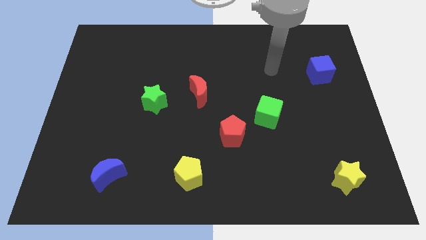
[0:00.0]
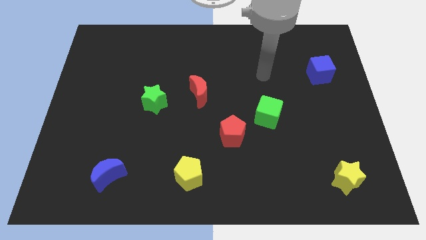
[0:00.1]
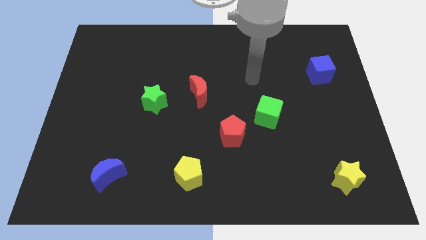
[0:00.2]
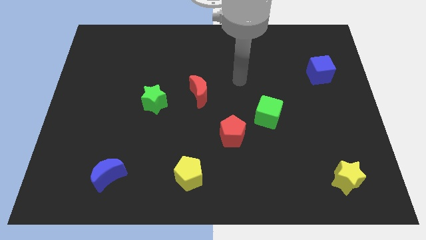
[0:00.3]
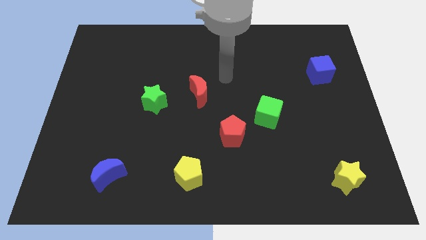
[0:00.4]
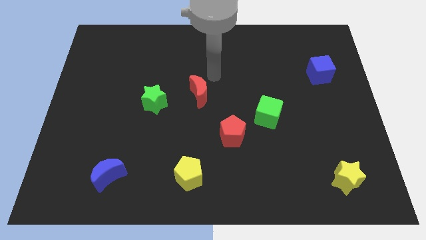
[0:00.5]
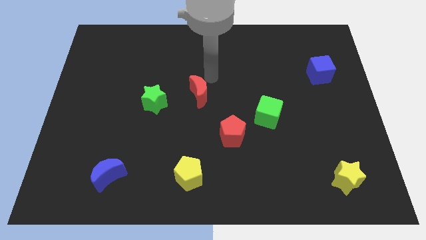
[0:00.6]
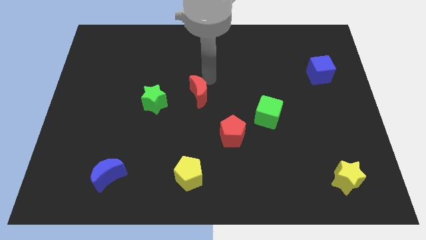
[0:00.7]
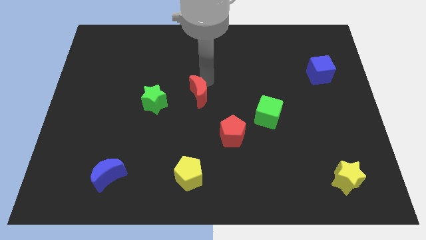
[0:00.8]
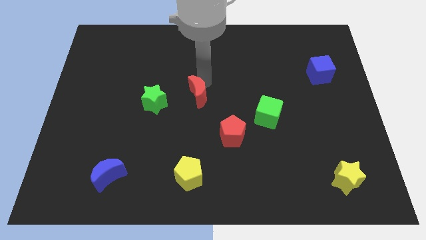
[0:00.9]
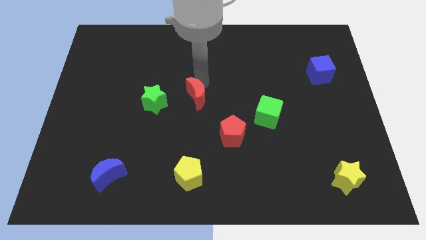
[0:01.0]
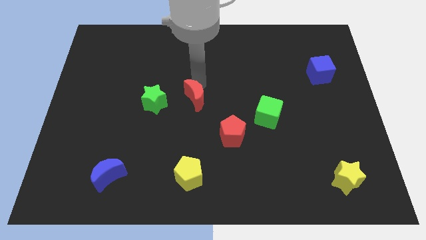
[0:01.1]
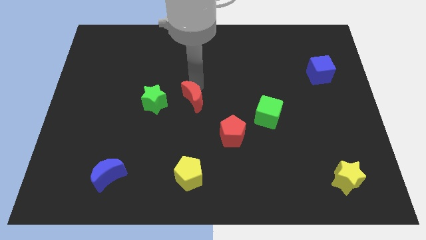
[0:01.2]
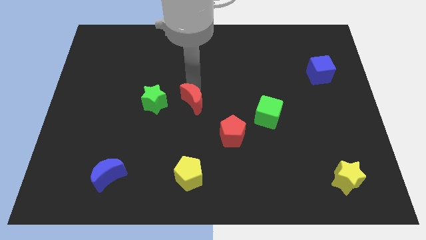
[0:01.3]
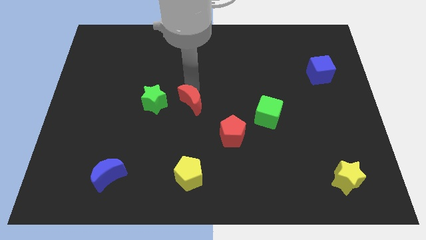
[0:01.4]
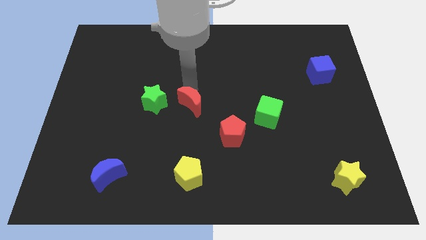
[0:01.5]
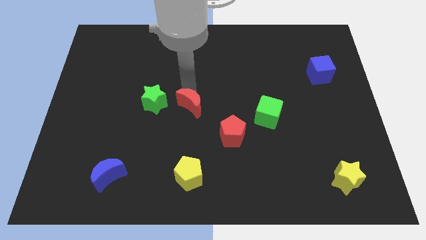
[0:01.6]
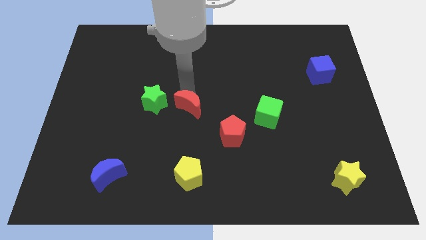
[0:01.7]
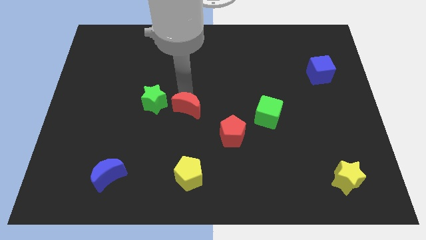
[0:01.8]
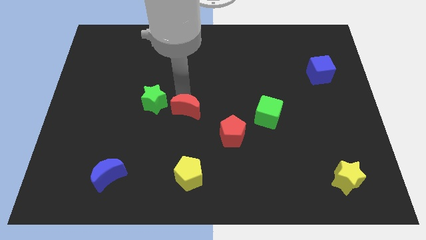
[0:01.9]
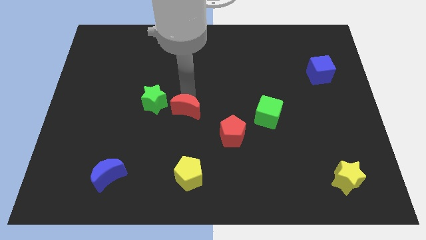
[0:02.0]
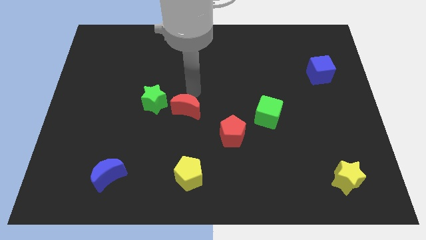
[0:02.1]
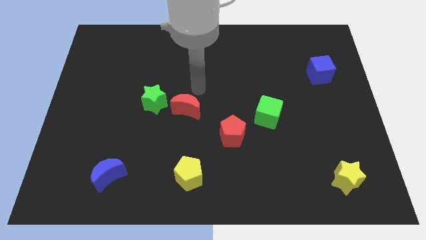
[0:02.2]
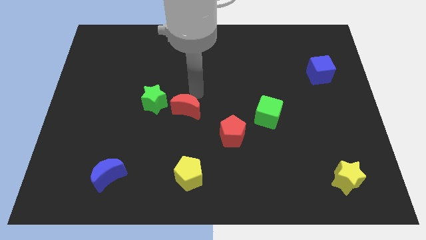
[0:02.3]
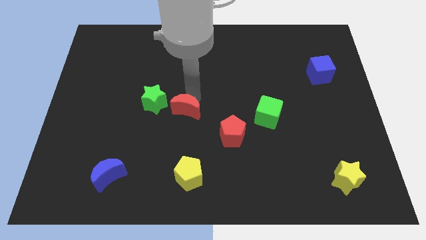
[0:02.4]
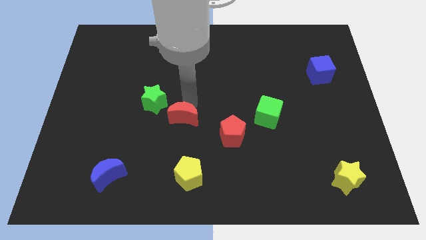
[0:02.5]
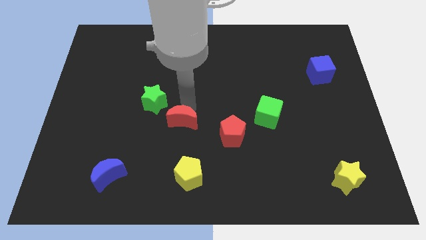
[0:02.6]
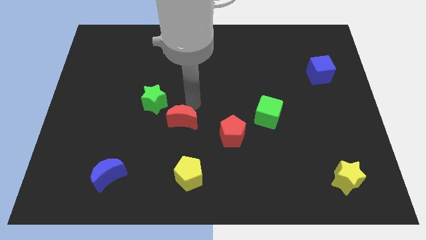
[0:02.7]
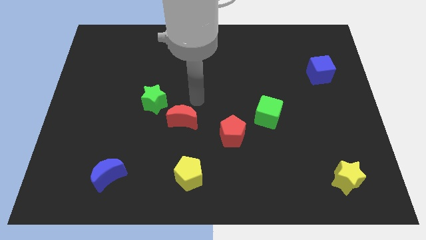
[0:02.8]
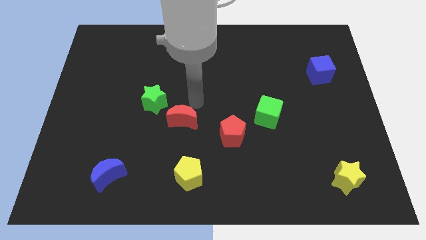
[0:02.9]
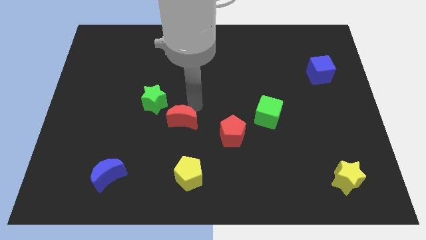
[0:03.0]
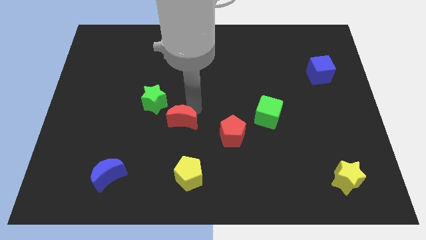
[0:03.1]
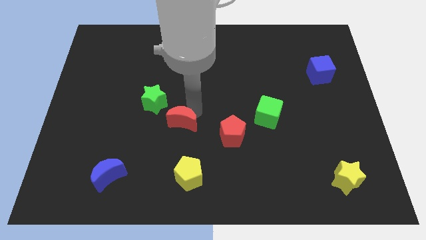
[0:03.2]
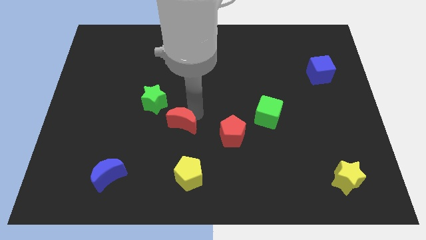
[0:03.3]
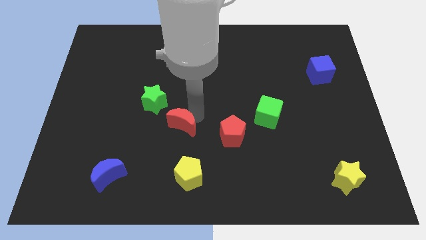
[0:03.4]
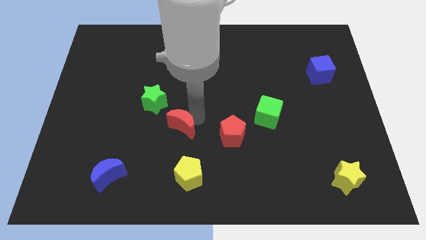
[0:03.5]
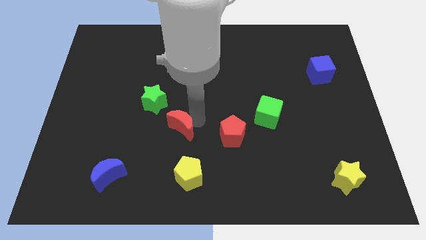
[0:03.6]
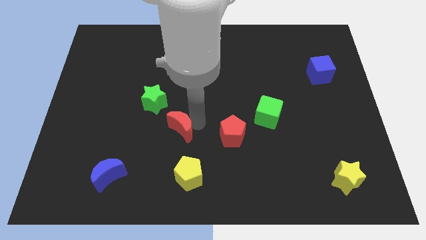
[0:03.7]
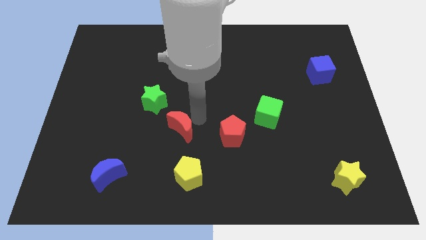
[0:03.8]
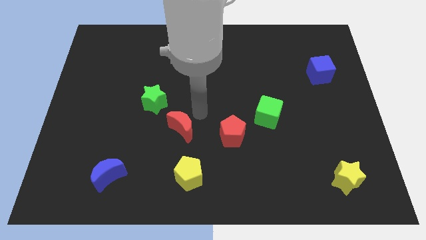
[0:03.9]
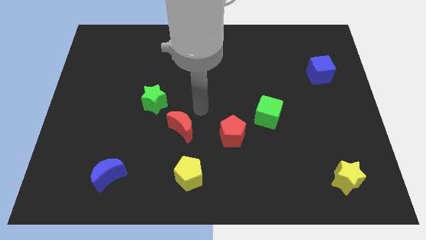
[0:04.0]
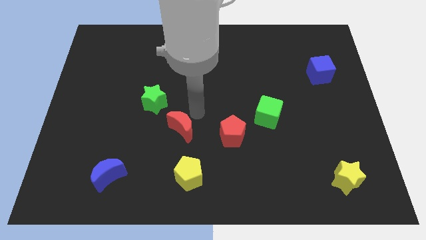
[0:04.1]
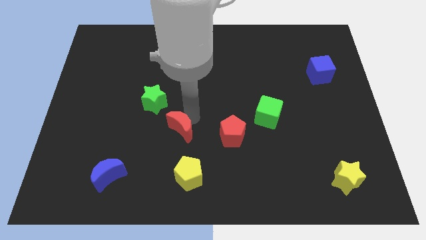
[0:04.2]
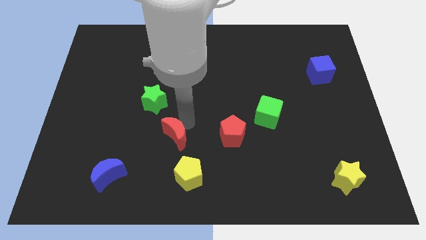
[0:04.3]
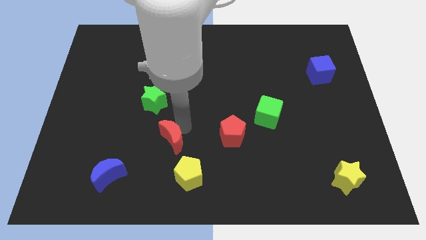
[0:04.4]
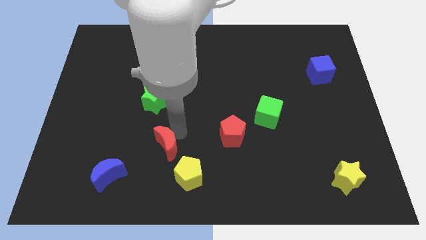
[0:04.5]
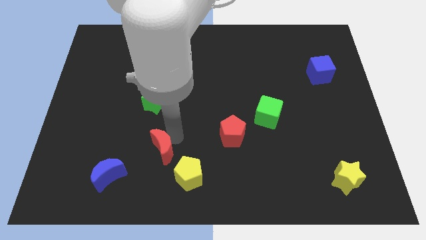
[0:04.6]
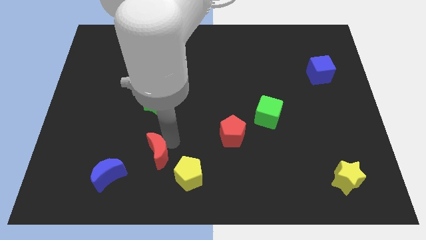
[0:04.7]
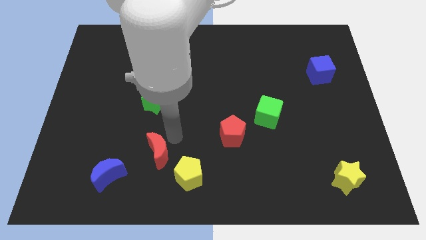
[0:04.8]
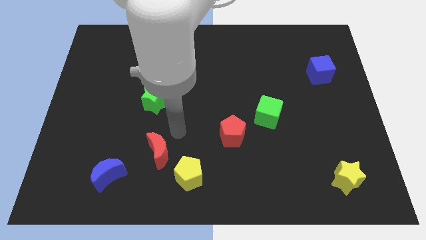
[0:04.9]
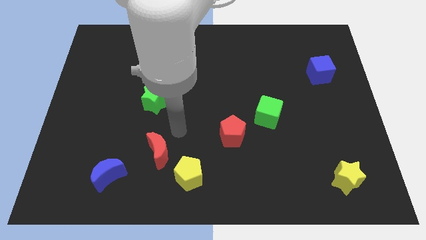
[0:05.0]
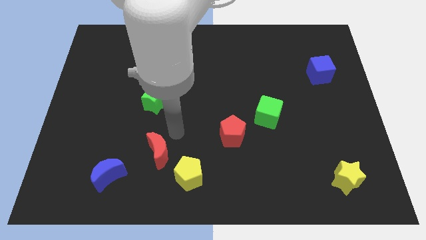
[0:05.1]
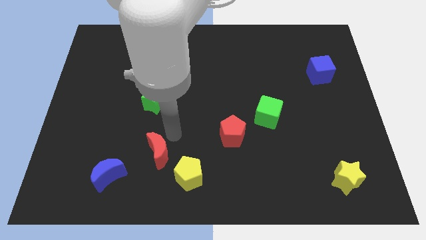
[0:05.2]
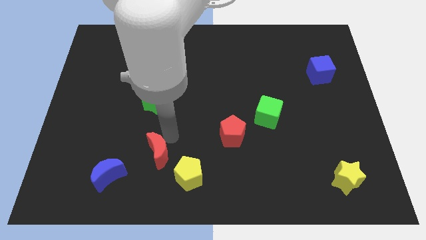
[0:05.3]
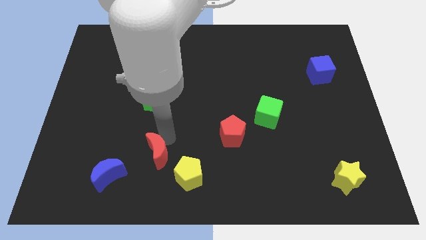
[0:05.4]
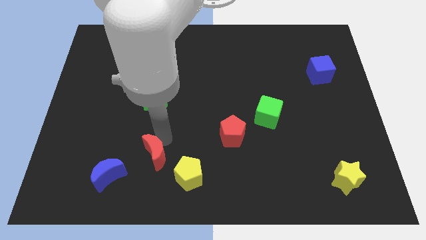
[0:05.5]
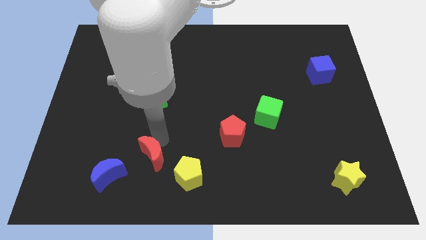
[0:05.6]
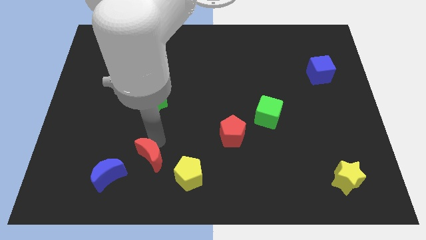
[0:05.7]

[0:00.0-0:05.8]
push the red moon to the left side of the yellow pentagon

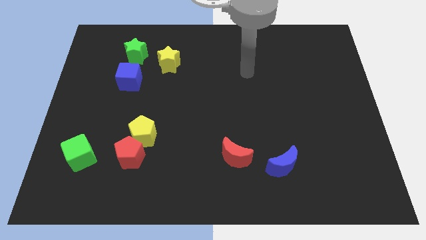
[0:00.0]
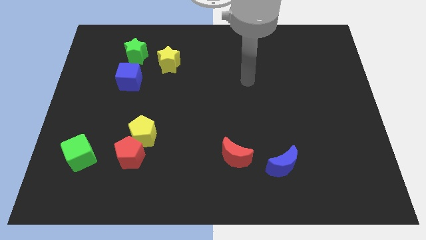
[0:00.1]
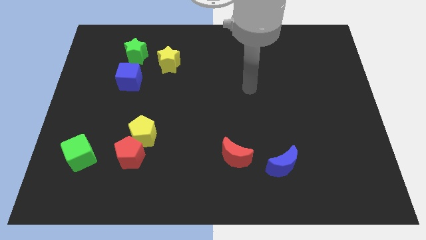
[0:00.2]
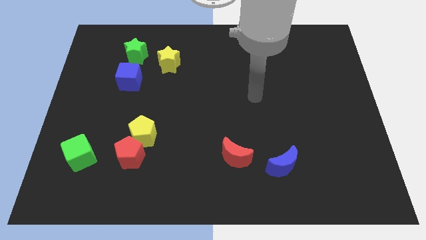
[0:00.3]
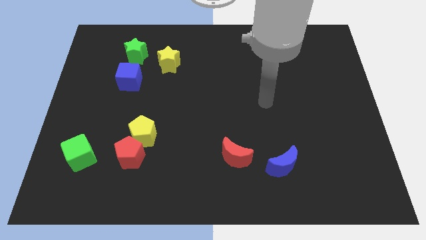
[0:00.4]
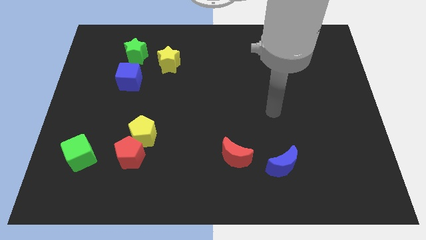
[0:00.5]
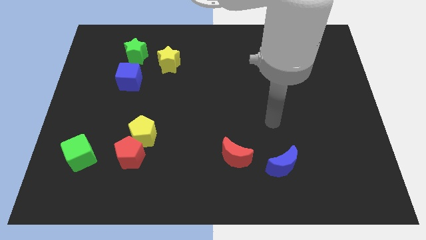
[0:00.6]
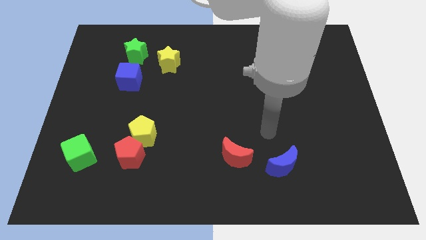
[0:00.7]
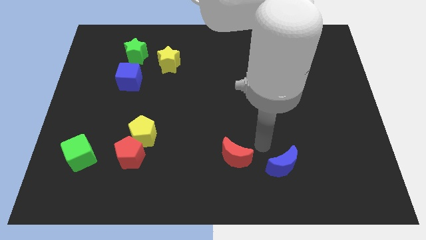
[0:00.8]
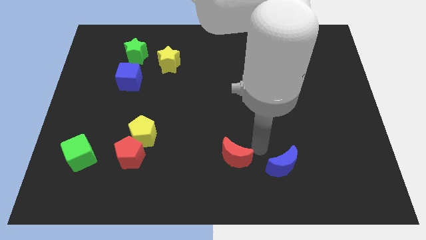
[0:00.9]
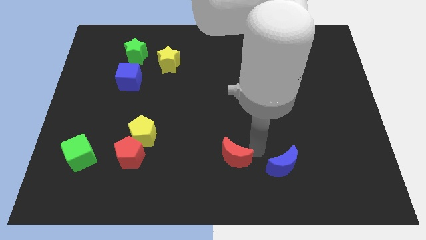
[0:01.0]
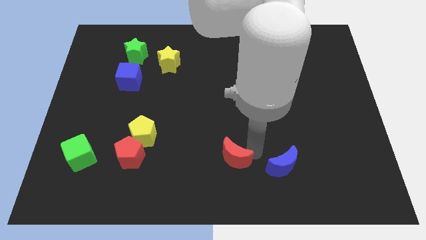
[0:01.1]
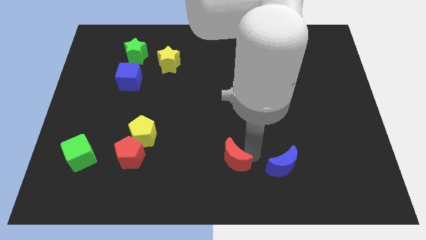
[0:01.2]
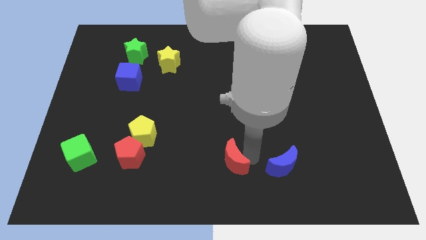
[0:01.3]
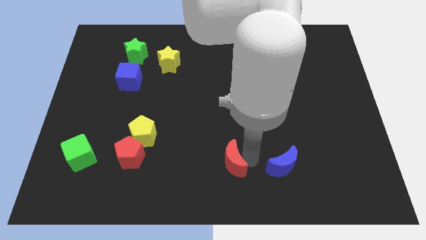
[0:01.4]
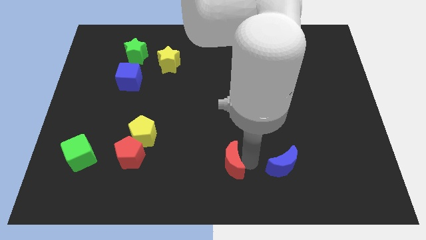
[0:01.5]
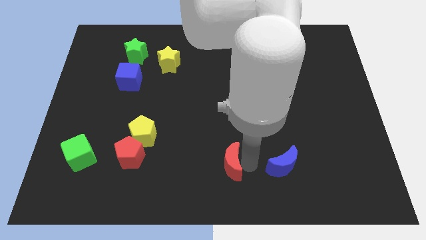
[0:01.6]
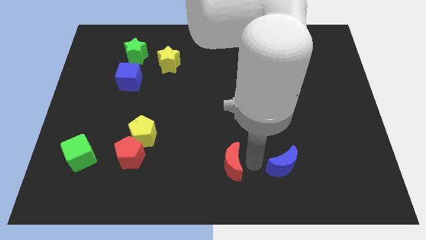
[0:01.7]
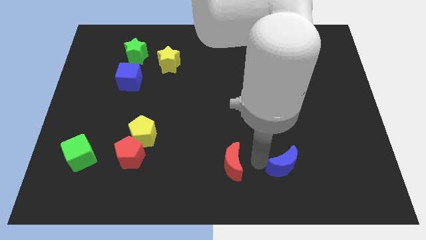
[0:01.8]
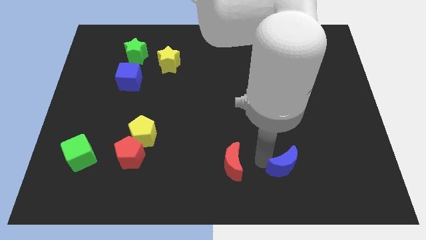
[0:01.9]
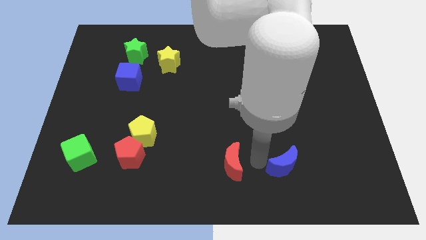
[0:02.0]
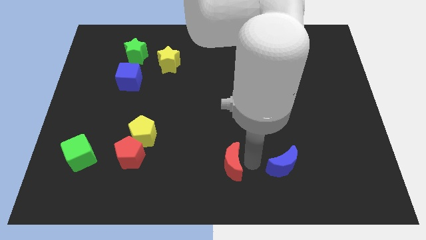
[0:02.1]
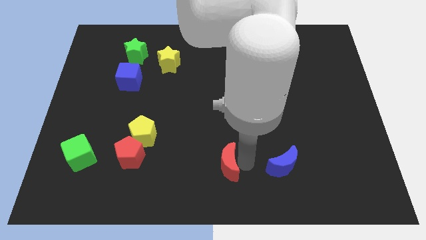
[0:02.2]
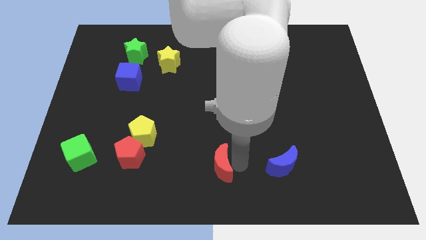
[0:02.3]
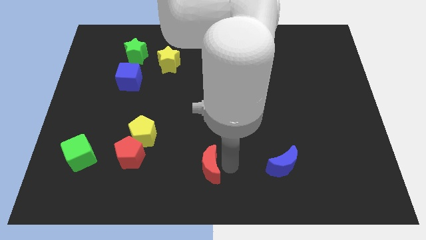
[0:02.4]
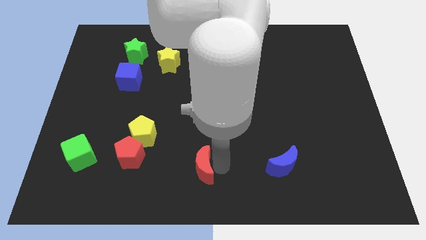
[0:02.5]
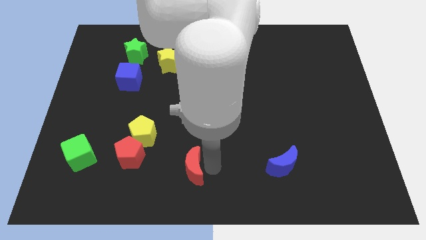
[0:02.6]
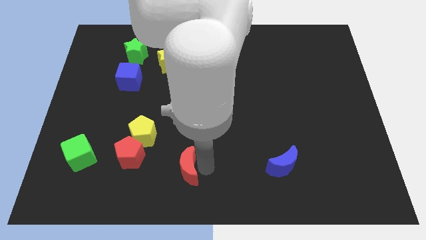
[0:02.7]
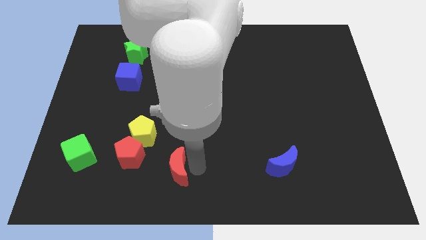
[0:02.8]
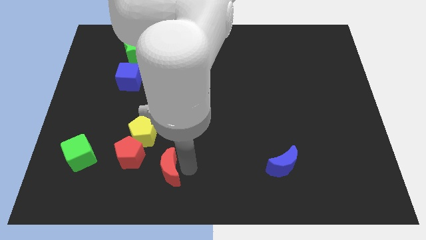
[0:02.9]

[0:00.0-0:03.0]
push the red moon diagonally down and to the right of the red pentagon
